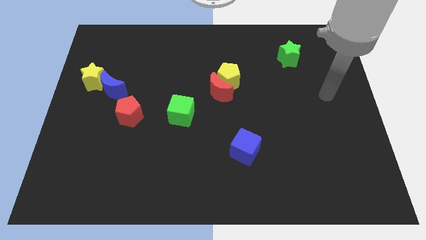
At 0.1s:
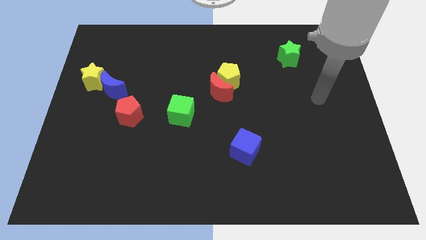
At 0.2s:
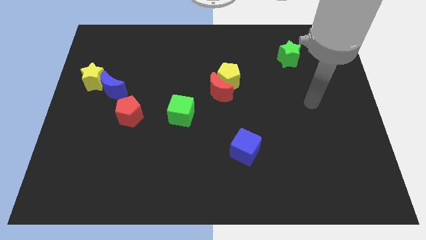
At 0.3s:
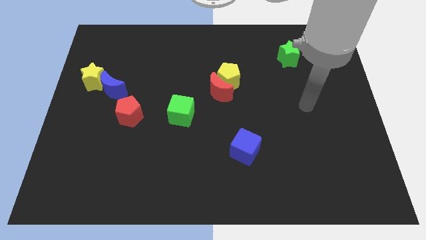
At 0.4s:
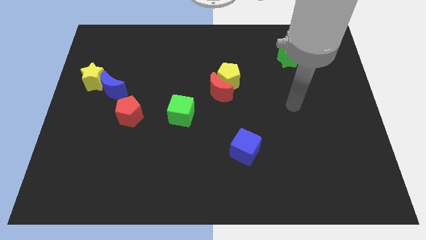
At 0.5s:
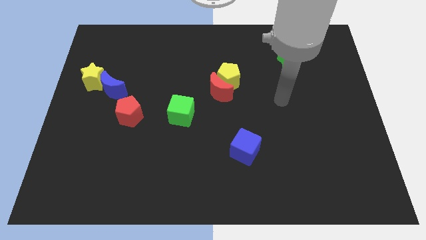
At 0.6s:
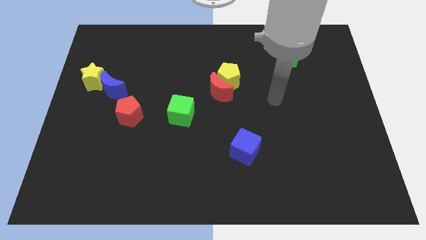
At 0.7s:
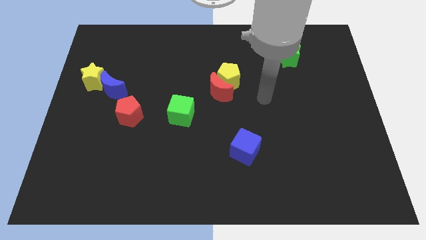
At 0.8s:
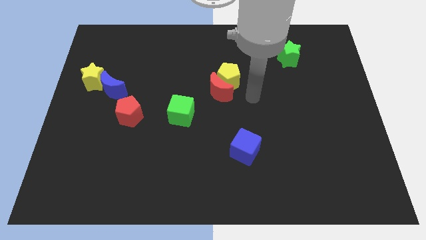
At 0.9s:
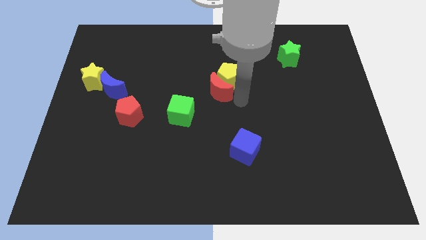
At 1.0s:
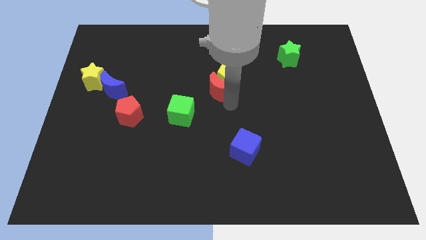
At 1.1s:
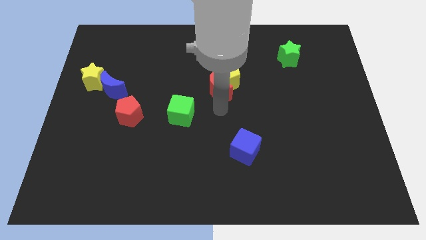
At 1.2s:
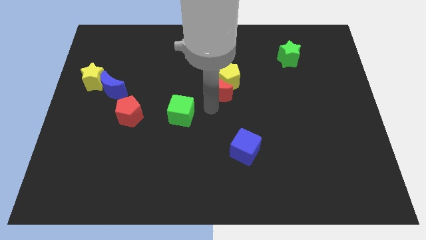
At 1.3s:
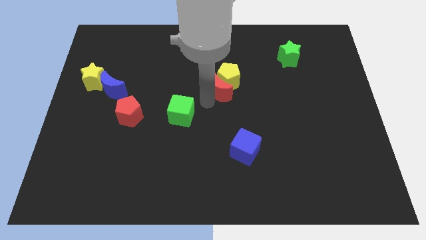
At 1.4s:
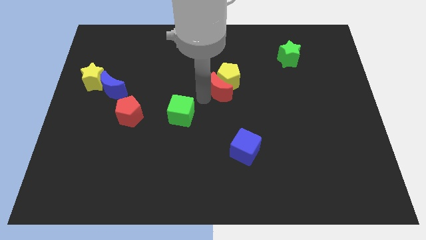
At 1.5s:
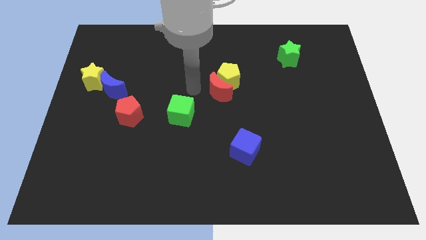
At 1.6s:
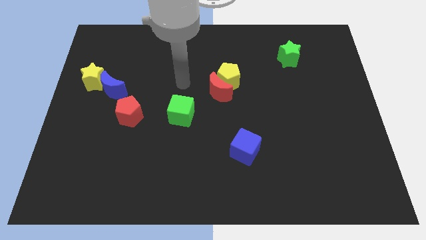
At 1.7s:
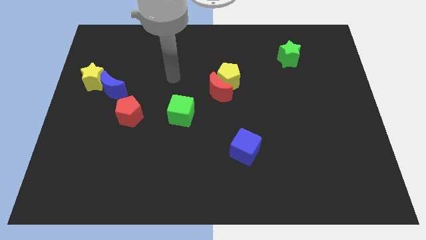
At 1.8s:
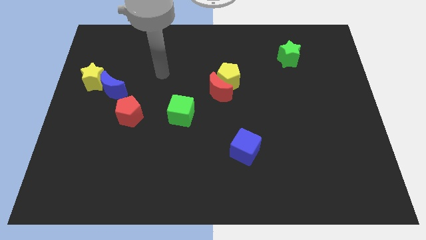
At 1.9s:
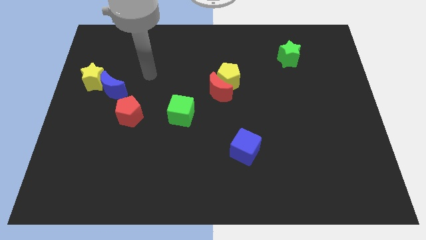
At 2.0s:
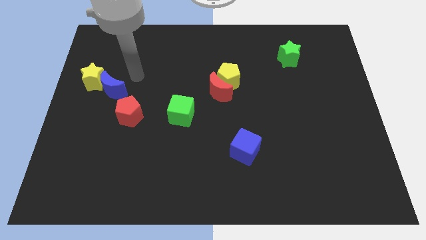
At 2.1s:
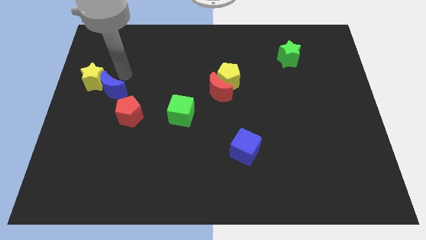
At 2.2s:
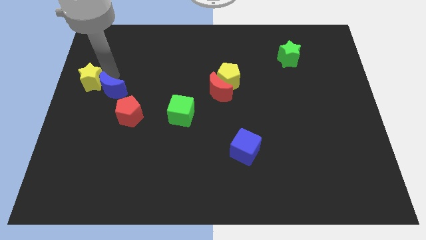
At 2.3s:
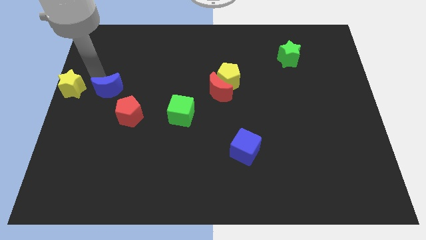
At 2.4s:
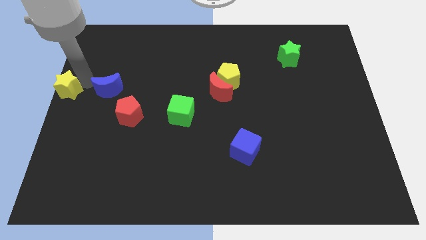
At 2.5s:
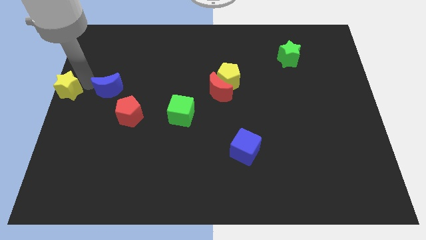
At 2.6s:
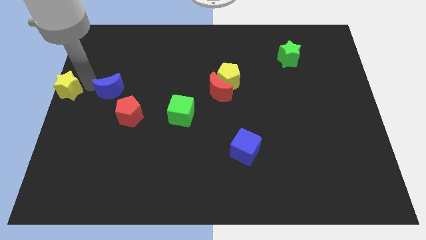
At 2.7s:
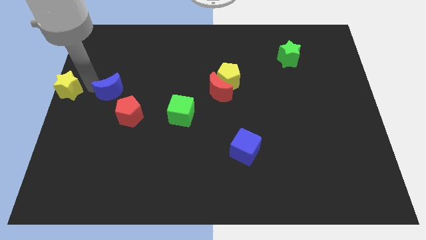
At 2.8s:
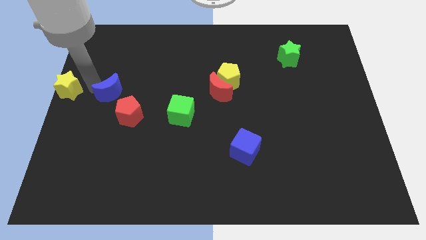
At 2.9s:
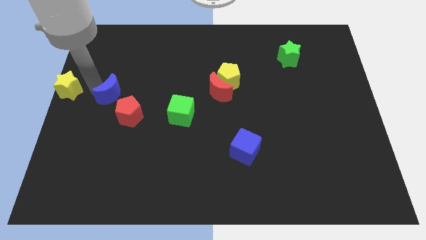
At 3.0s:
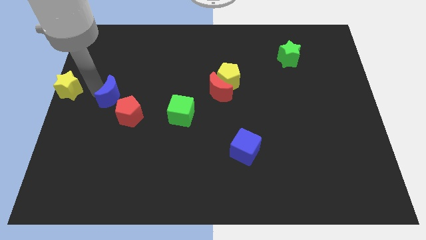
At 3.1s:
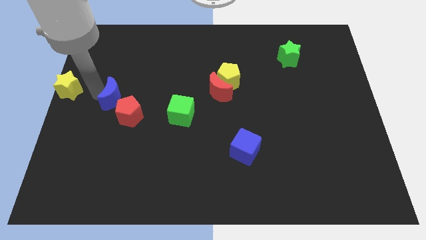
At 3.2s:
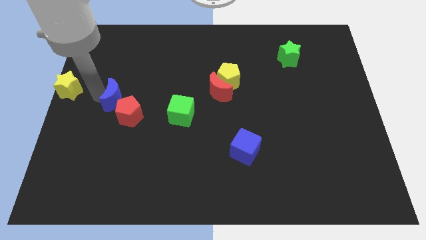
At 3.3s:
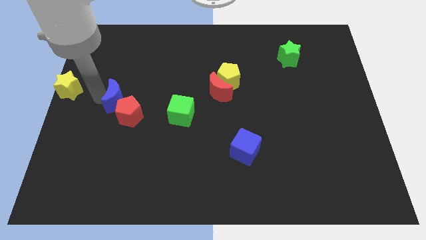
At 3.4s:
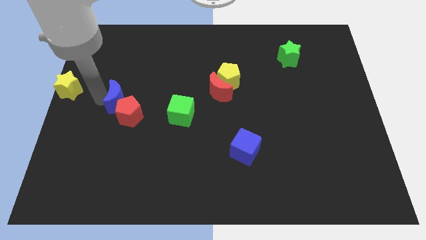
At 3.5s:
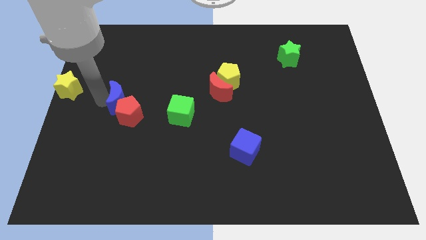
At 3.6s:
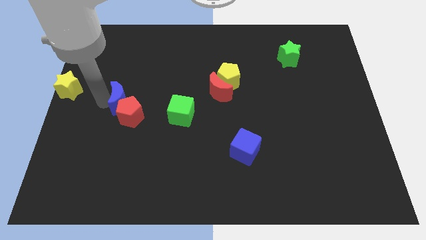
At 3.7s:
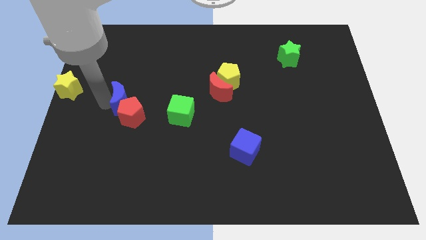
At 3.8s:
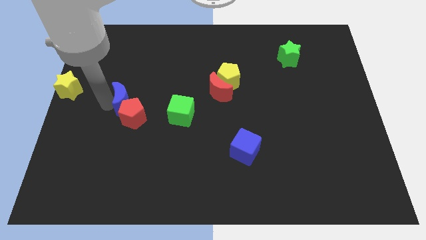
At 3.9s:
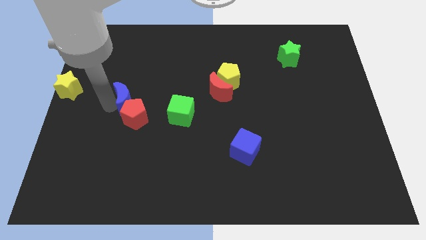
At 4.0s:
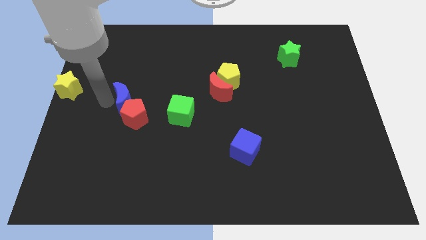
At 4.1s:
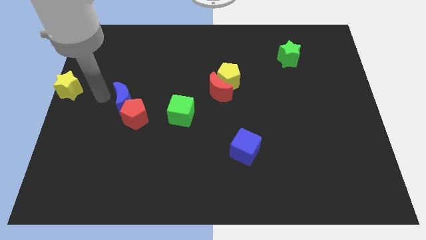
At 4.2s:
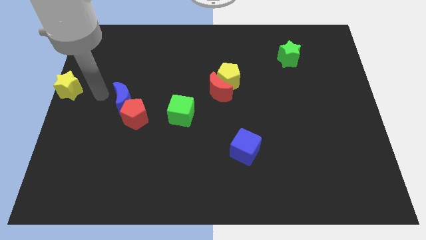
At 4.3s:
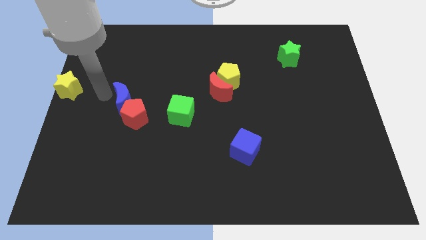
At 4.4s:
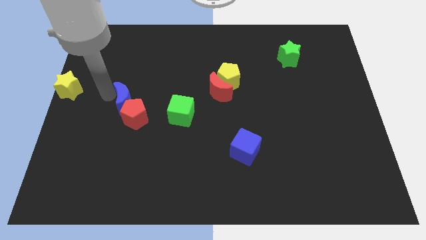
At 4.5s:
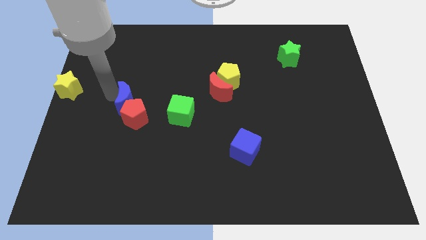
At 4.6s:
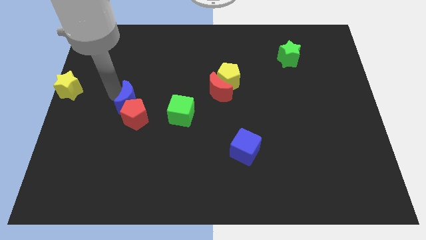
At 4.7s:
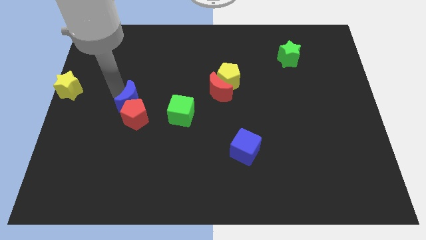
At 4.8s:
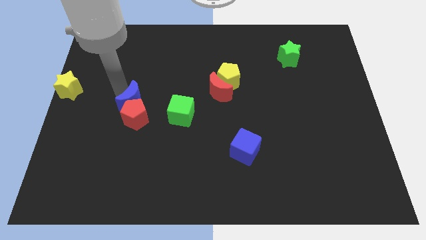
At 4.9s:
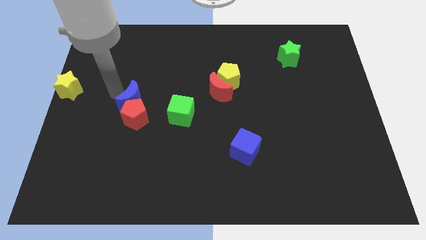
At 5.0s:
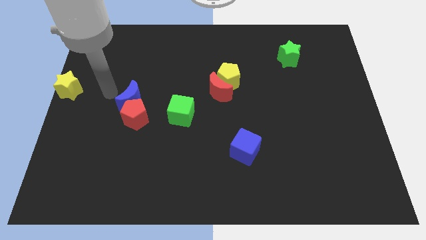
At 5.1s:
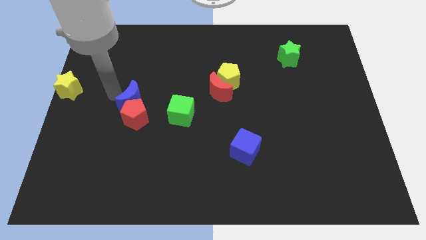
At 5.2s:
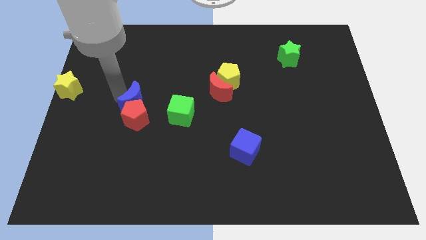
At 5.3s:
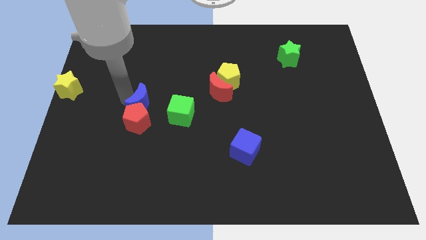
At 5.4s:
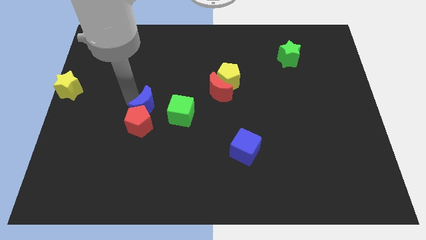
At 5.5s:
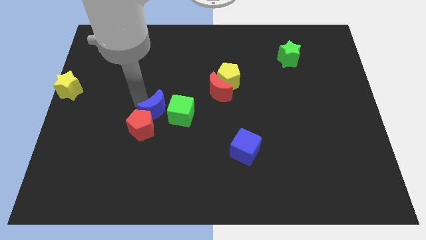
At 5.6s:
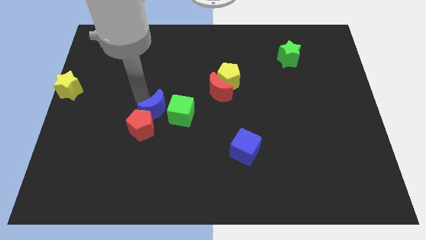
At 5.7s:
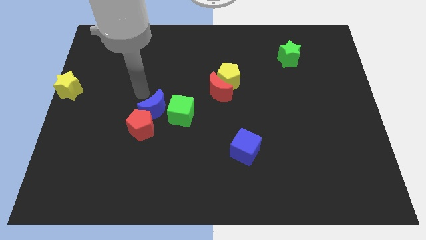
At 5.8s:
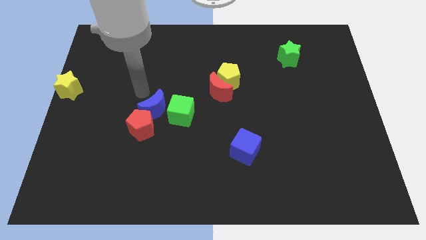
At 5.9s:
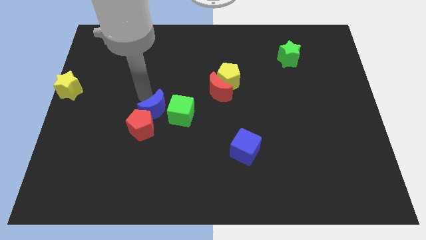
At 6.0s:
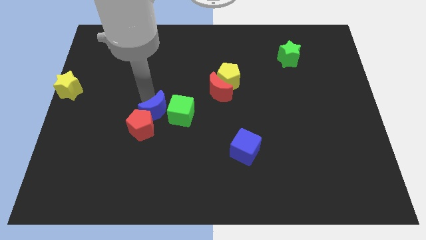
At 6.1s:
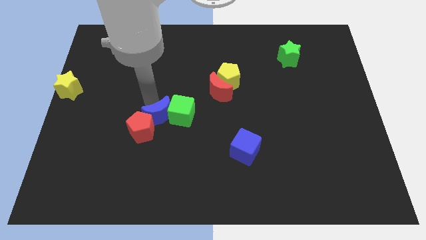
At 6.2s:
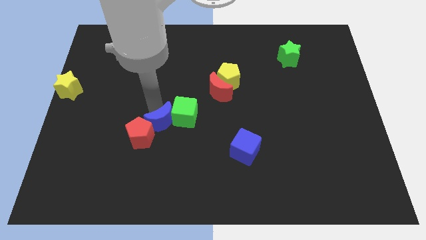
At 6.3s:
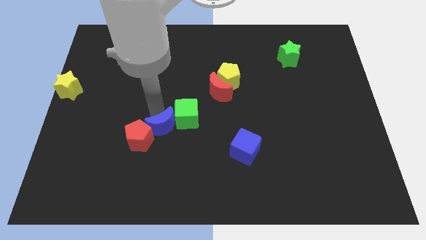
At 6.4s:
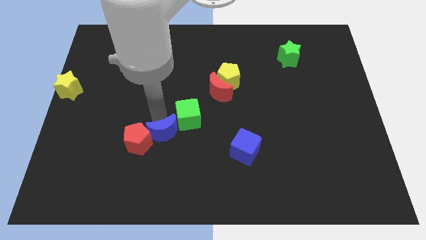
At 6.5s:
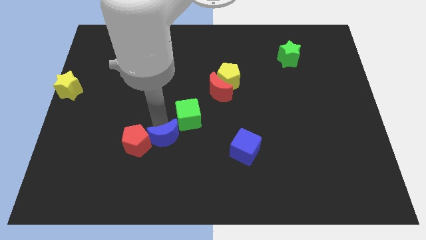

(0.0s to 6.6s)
move the blue moon downwards and to the right diagonally

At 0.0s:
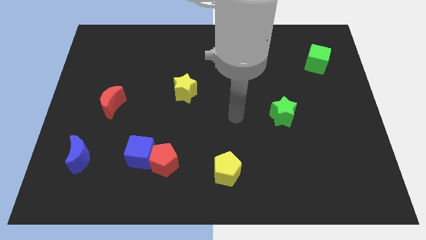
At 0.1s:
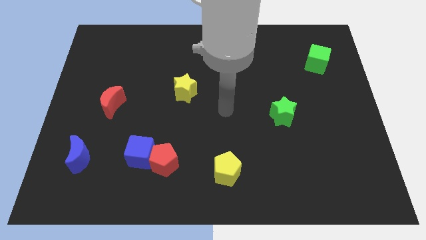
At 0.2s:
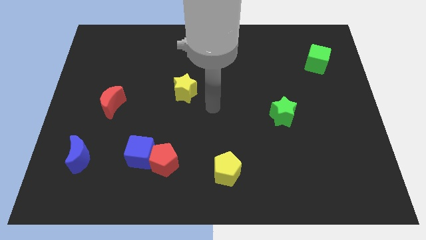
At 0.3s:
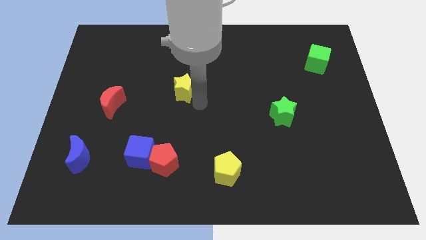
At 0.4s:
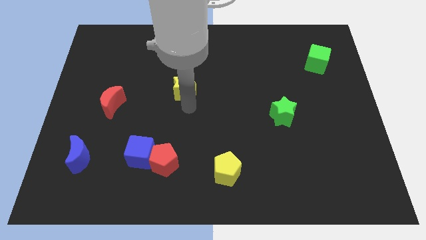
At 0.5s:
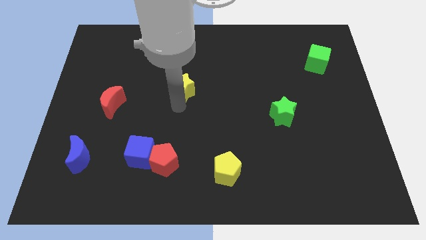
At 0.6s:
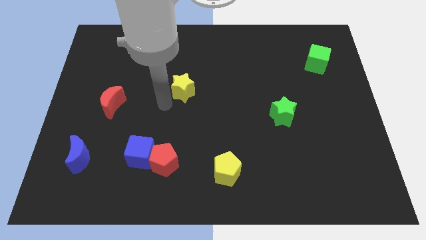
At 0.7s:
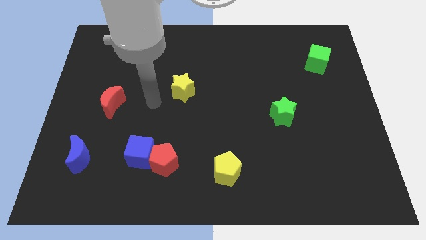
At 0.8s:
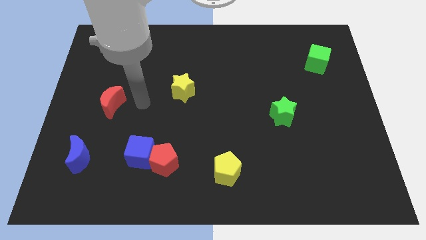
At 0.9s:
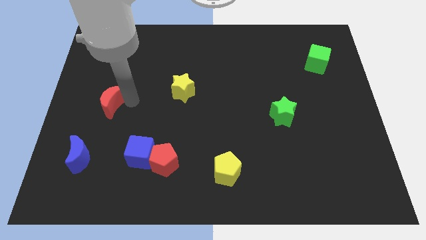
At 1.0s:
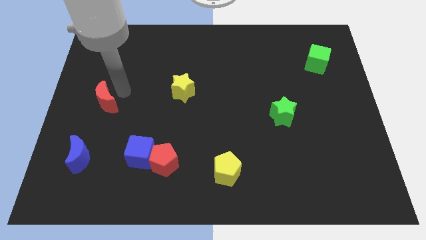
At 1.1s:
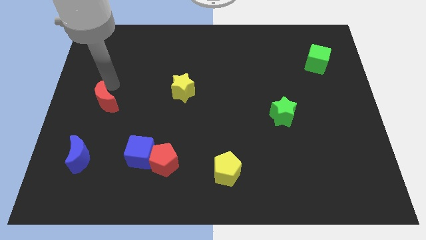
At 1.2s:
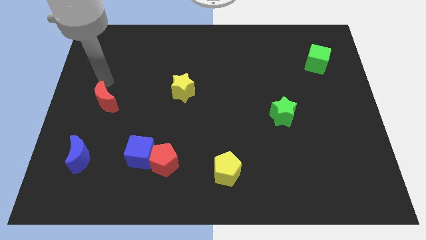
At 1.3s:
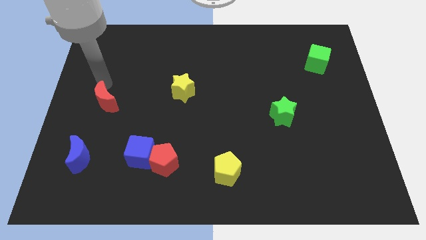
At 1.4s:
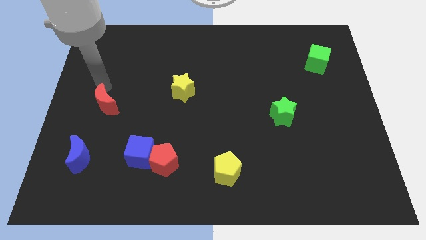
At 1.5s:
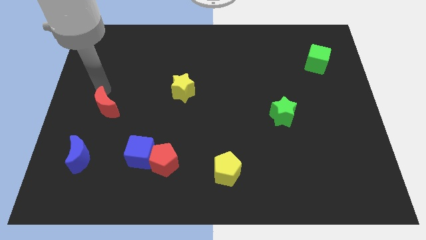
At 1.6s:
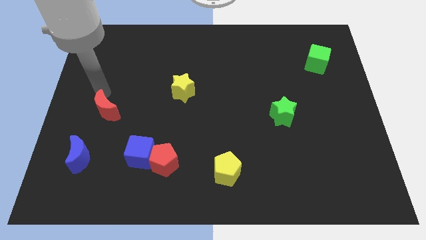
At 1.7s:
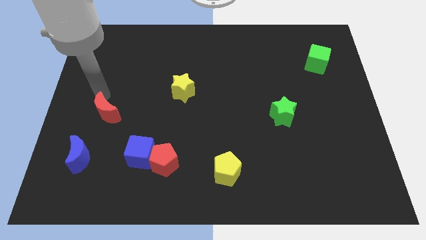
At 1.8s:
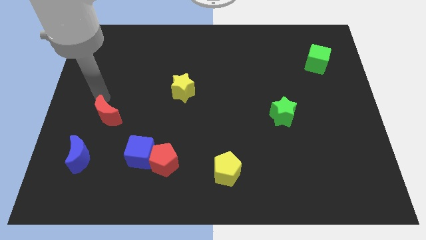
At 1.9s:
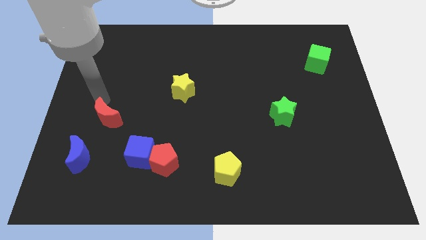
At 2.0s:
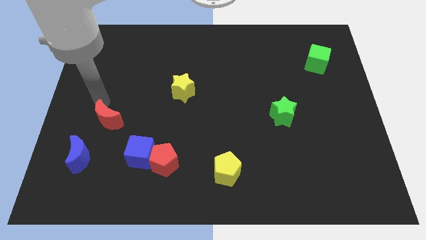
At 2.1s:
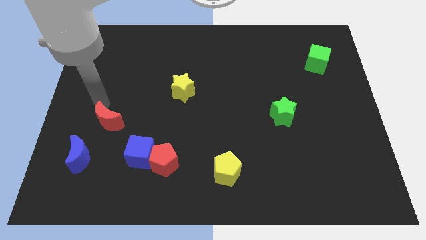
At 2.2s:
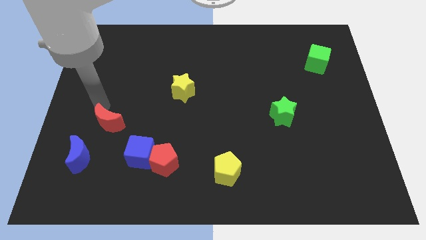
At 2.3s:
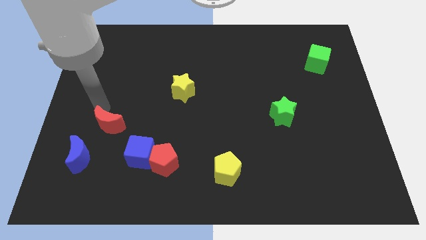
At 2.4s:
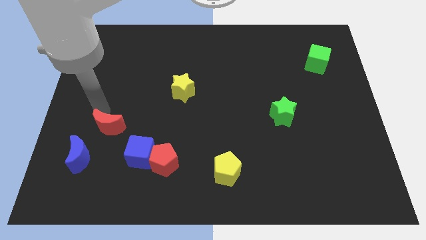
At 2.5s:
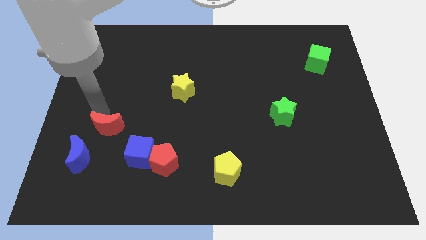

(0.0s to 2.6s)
slide the red moon a little bit downwards
